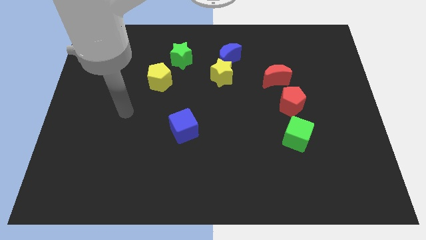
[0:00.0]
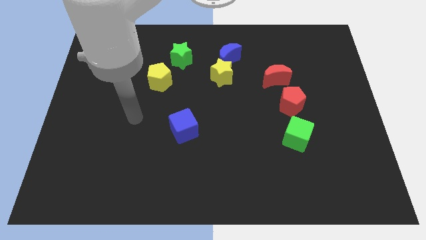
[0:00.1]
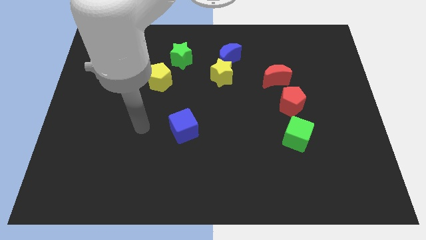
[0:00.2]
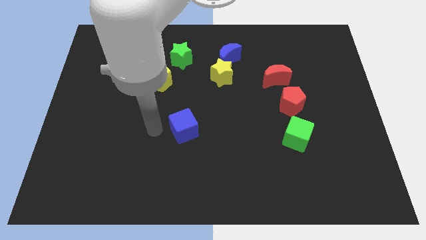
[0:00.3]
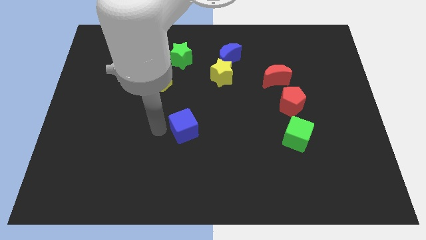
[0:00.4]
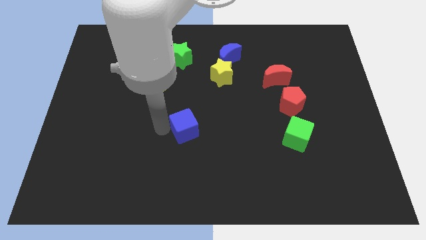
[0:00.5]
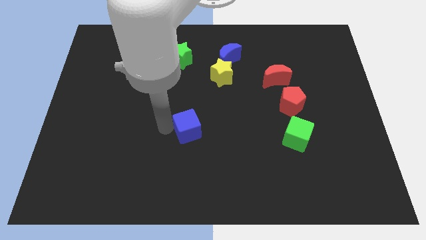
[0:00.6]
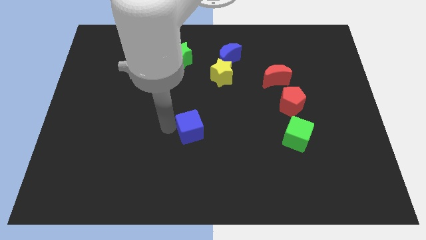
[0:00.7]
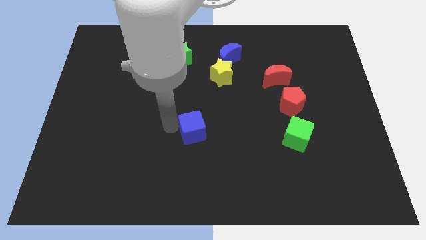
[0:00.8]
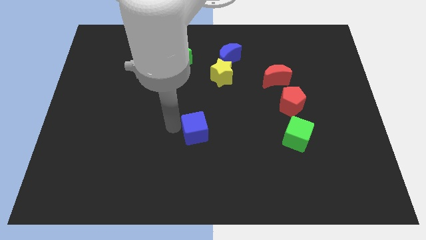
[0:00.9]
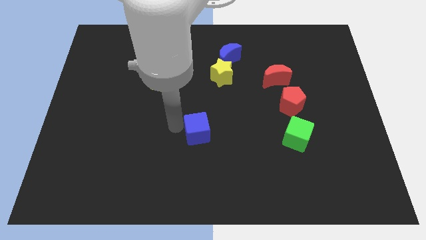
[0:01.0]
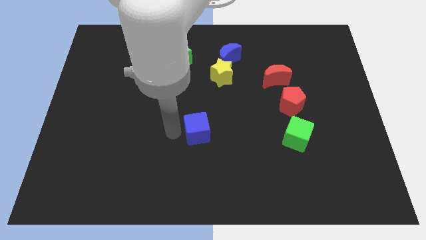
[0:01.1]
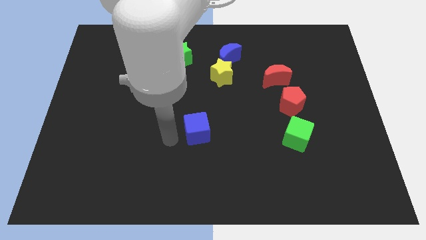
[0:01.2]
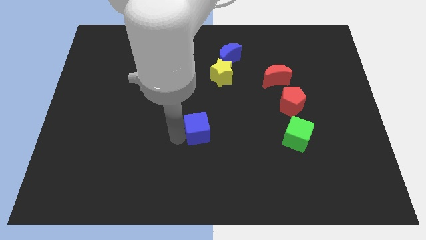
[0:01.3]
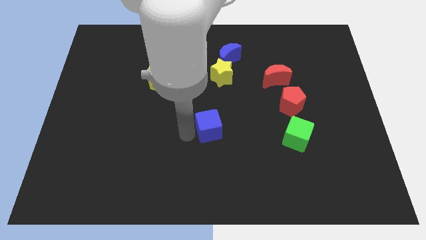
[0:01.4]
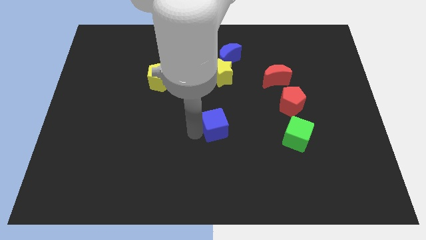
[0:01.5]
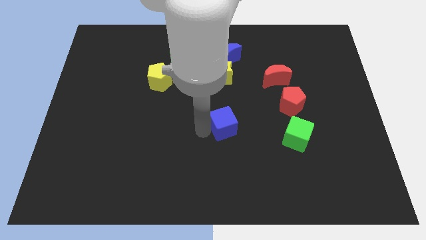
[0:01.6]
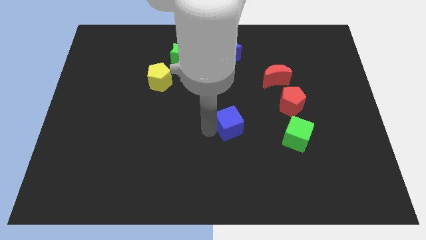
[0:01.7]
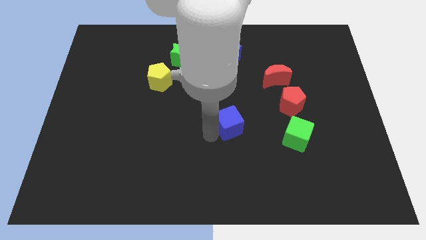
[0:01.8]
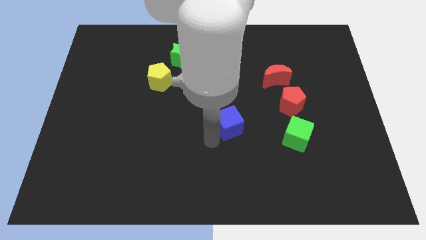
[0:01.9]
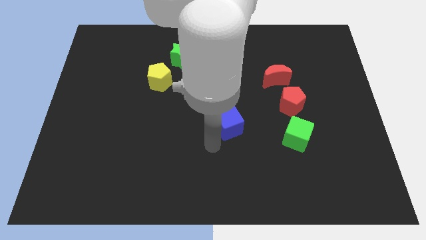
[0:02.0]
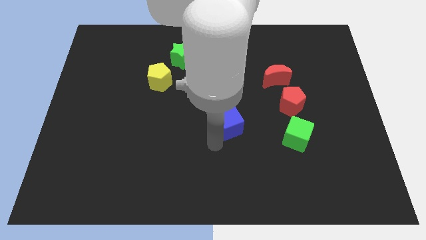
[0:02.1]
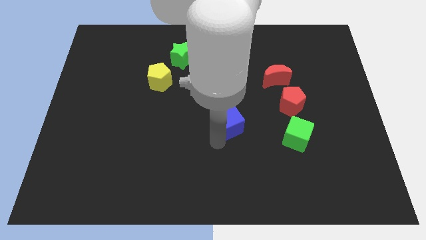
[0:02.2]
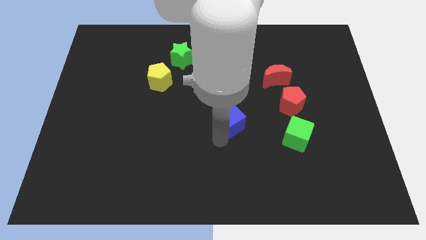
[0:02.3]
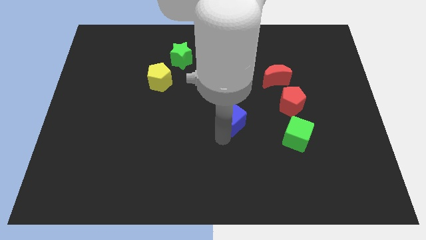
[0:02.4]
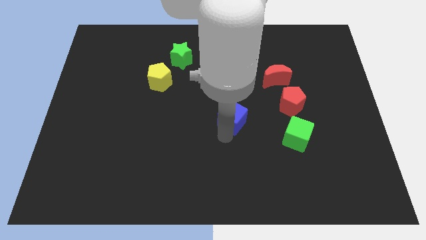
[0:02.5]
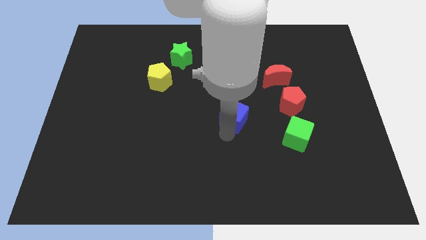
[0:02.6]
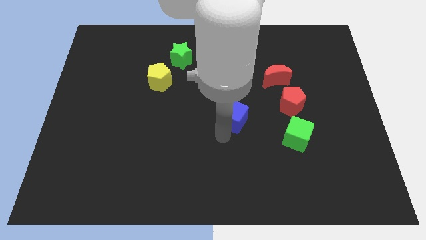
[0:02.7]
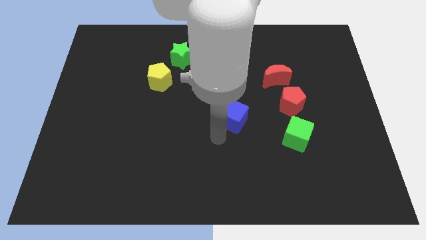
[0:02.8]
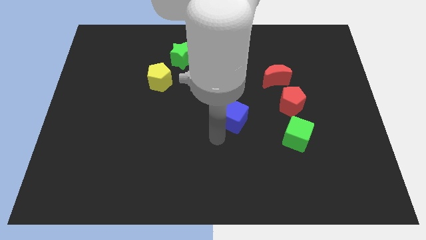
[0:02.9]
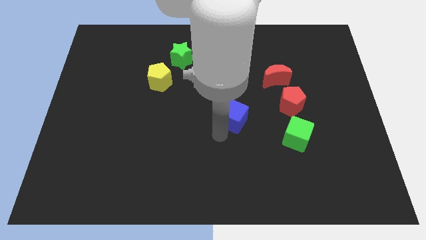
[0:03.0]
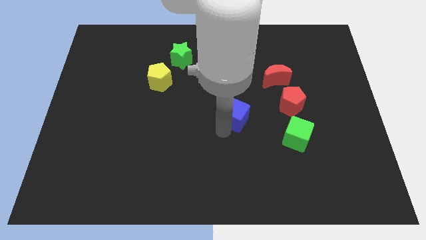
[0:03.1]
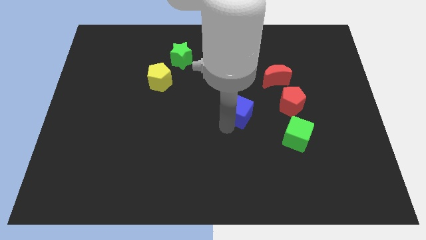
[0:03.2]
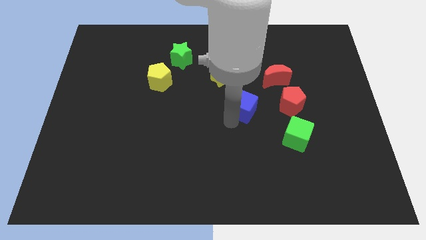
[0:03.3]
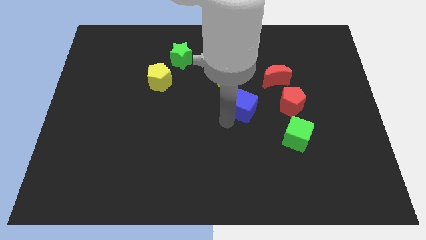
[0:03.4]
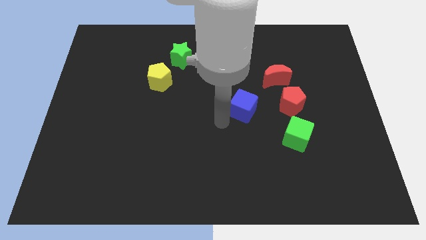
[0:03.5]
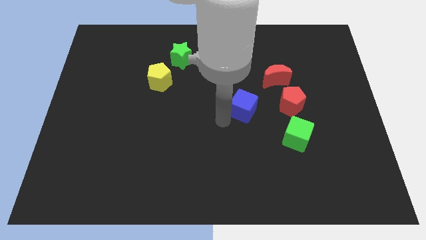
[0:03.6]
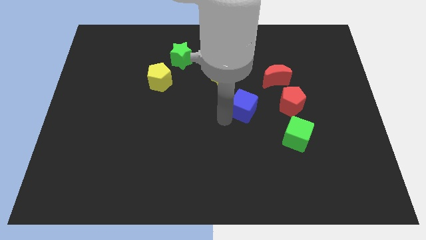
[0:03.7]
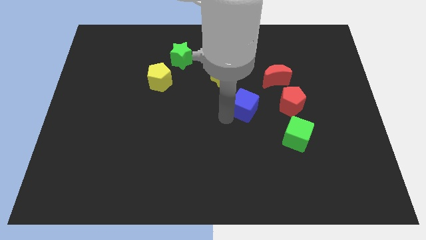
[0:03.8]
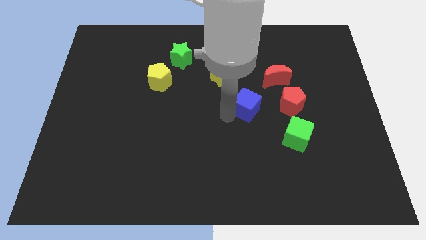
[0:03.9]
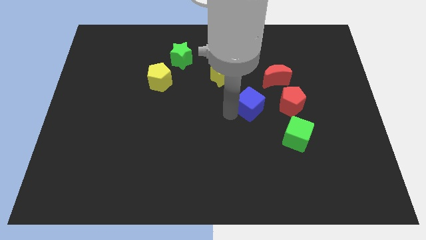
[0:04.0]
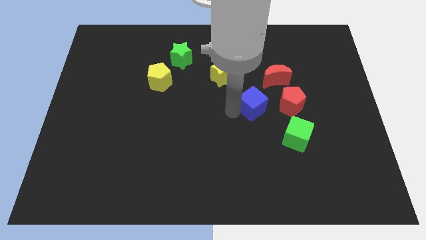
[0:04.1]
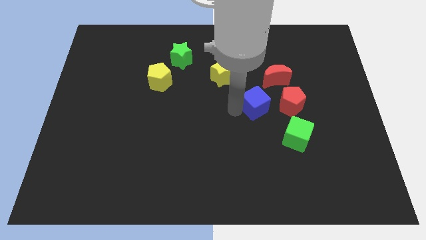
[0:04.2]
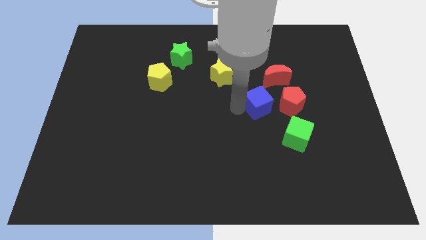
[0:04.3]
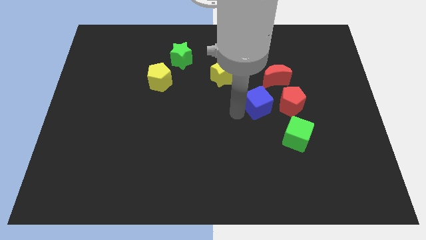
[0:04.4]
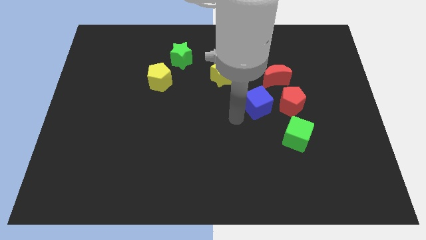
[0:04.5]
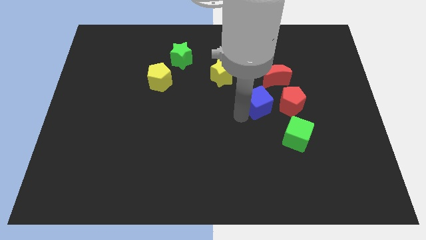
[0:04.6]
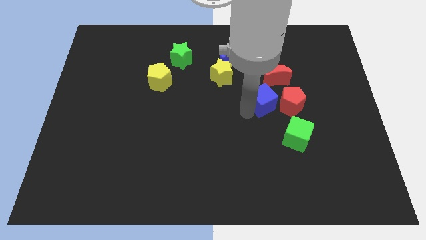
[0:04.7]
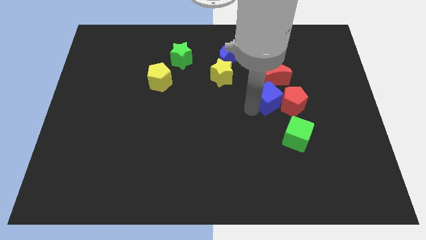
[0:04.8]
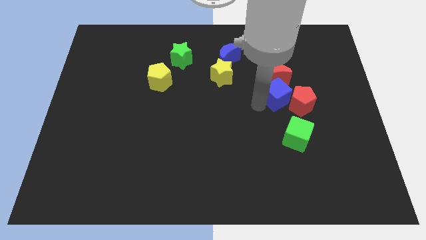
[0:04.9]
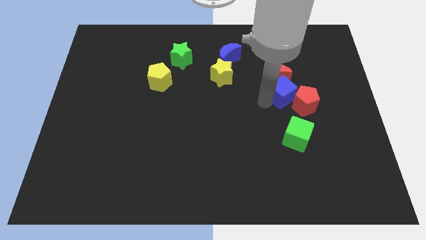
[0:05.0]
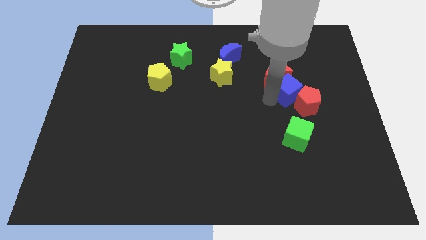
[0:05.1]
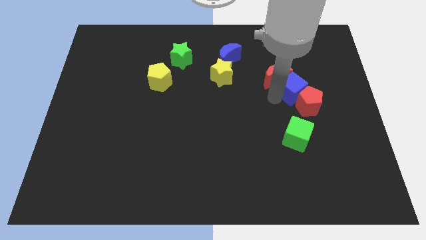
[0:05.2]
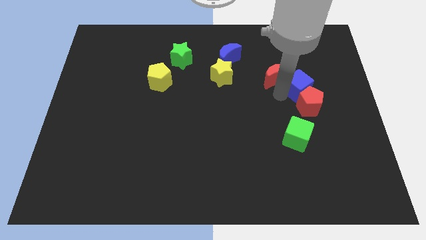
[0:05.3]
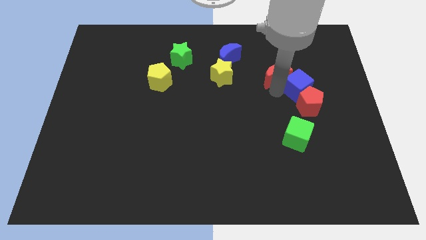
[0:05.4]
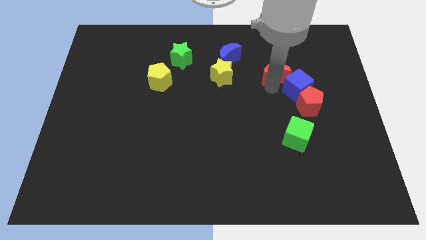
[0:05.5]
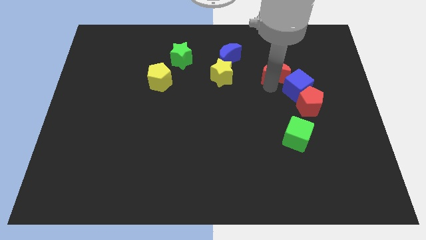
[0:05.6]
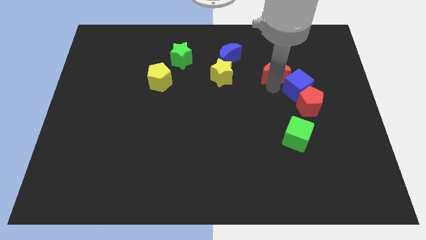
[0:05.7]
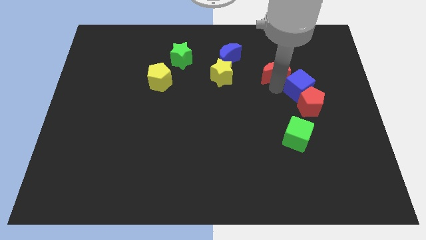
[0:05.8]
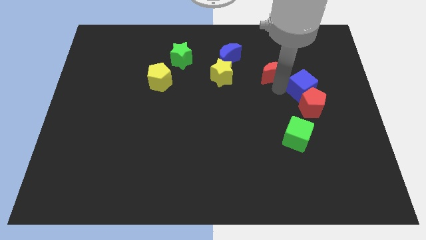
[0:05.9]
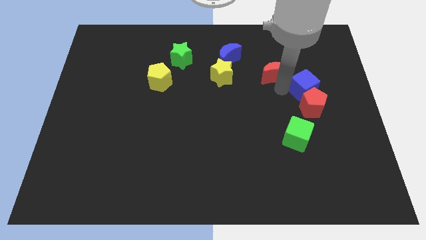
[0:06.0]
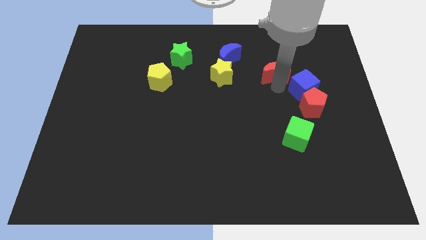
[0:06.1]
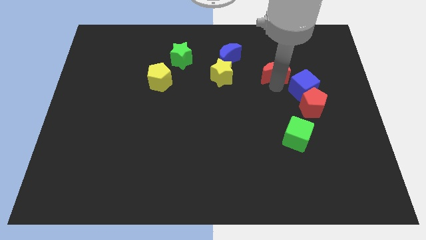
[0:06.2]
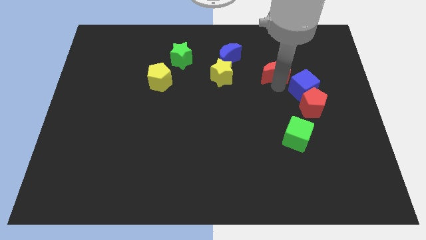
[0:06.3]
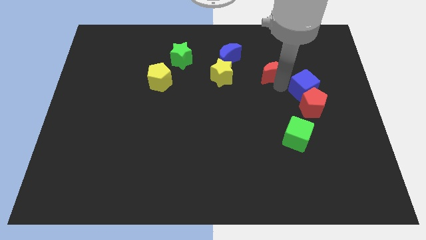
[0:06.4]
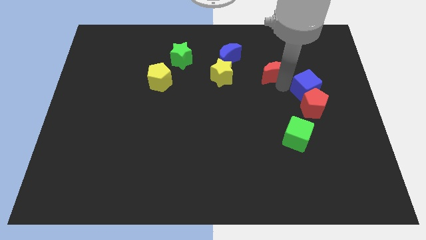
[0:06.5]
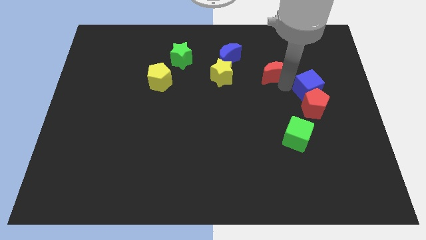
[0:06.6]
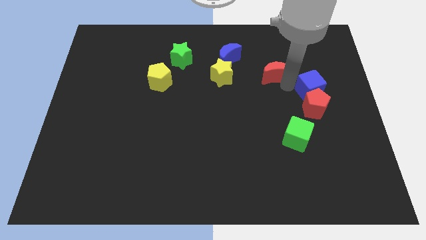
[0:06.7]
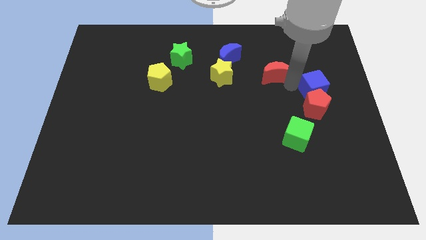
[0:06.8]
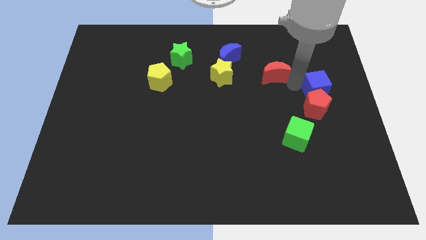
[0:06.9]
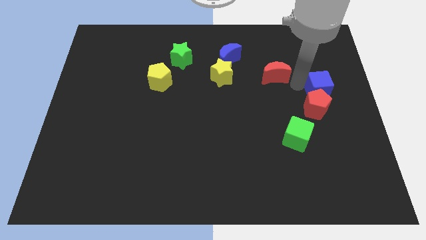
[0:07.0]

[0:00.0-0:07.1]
slide the blue cube to the right side of the board
